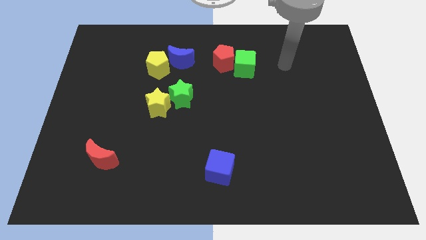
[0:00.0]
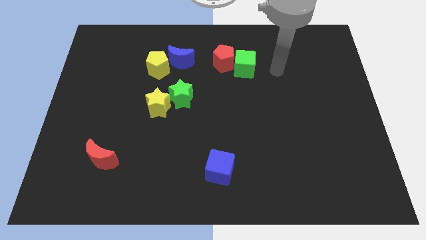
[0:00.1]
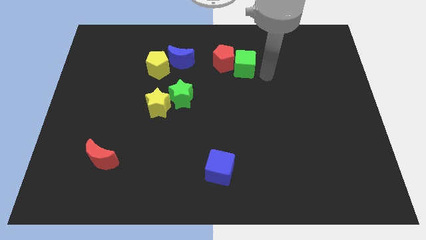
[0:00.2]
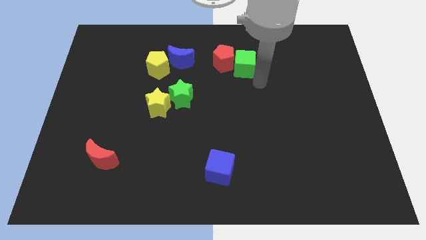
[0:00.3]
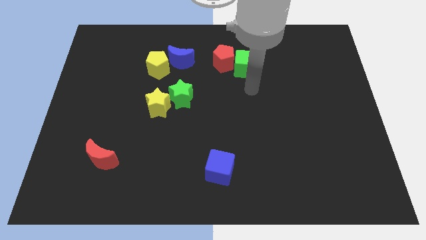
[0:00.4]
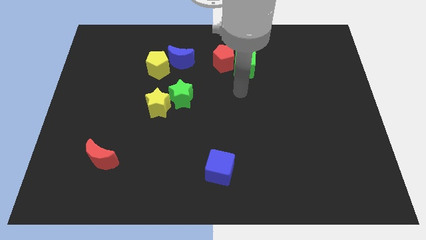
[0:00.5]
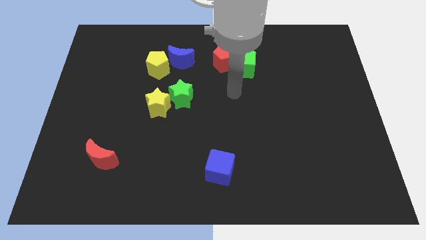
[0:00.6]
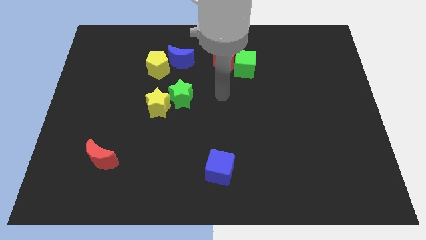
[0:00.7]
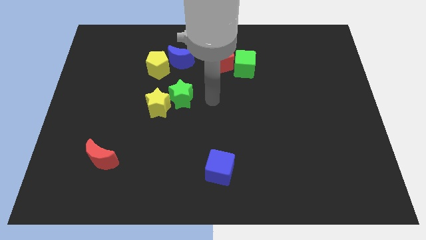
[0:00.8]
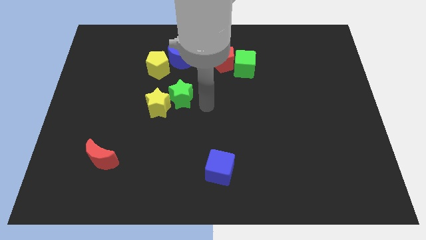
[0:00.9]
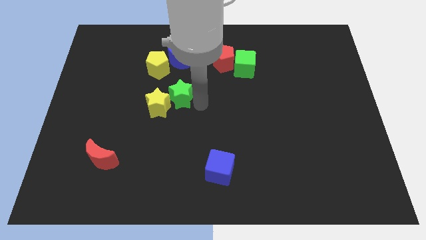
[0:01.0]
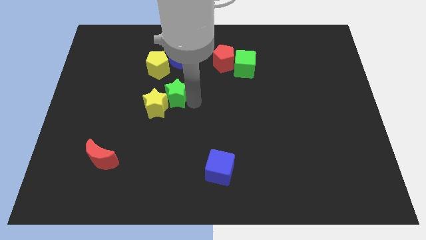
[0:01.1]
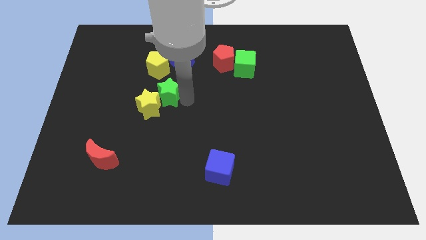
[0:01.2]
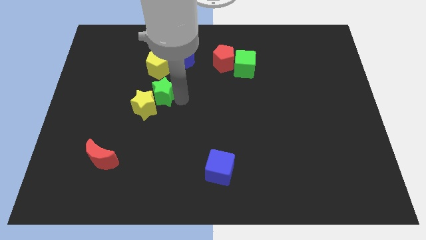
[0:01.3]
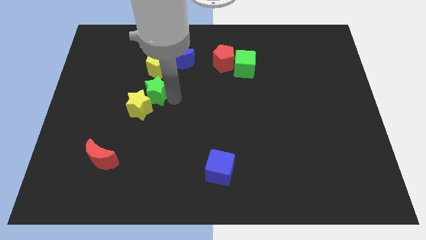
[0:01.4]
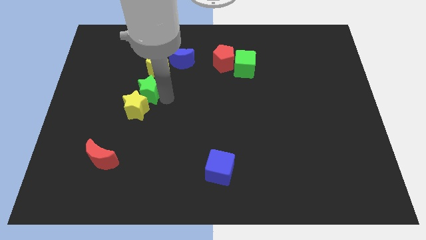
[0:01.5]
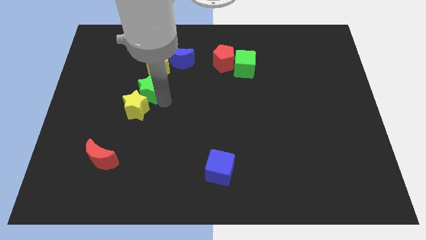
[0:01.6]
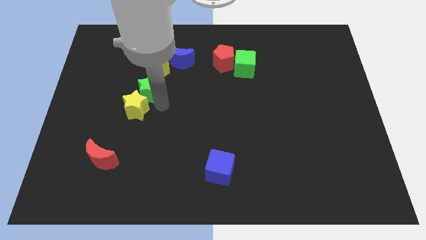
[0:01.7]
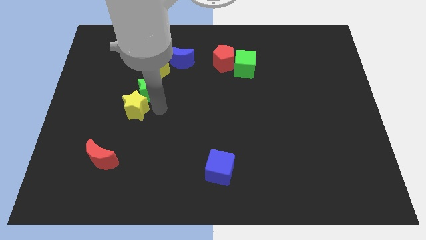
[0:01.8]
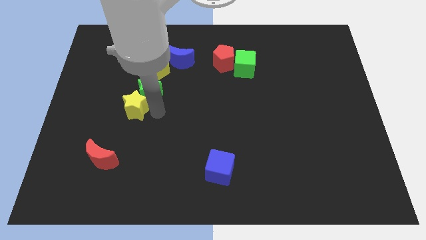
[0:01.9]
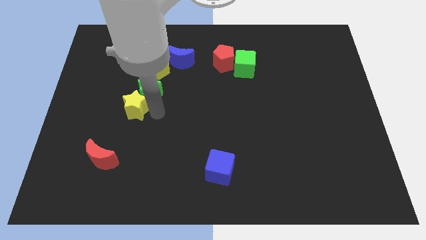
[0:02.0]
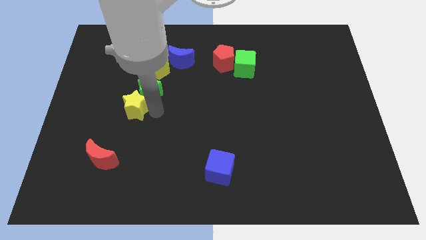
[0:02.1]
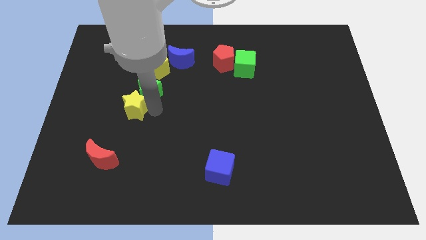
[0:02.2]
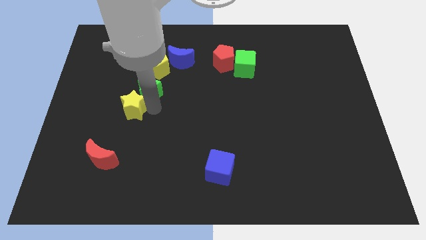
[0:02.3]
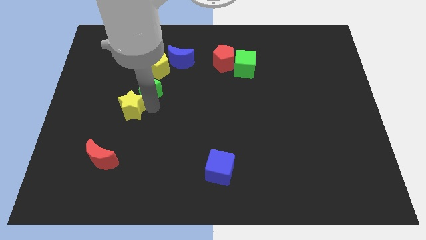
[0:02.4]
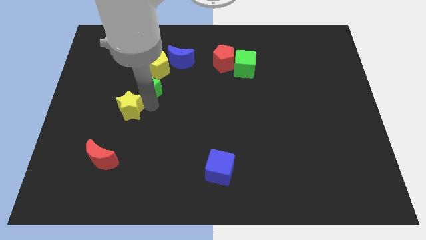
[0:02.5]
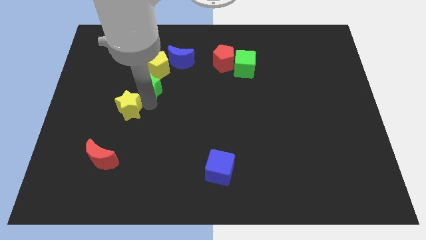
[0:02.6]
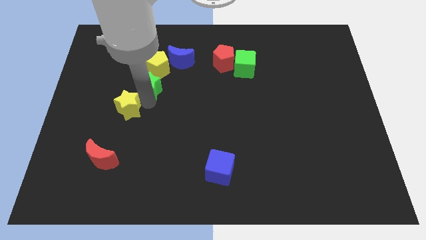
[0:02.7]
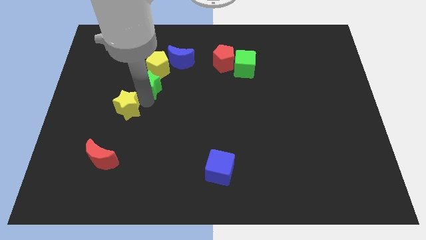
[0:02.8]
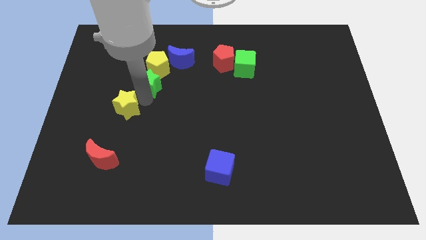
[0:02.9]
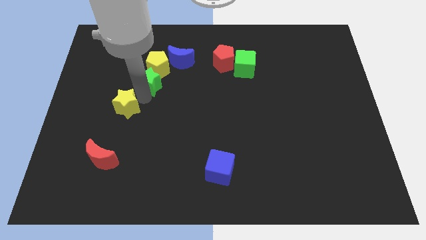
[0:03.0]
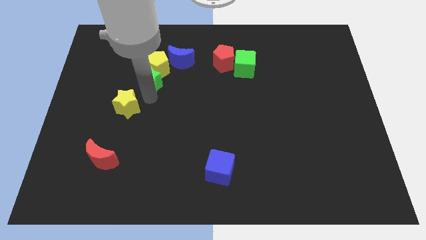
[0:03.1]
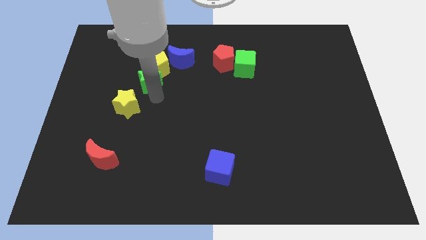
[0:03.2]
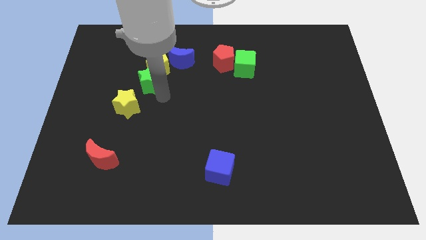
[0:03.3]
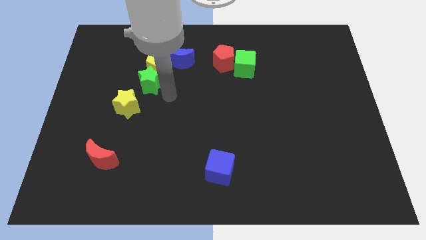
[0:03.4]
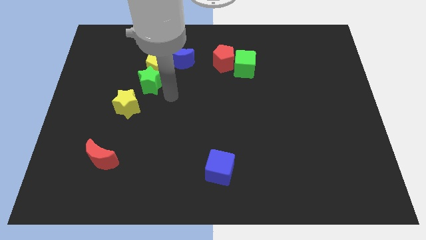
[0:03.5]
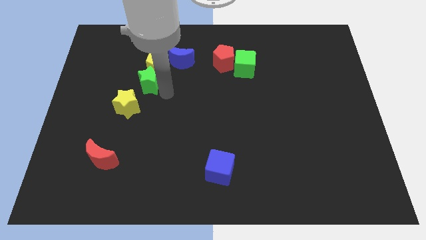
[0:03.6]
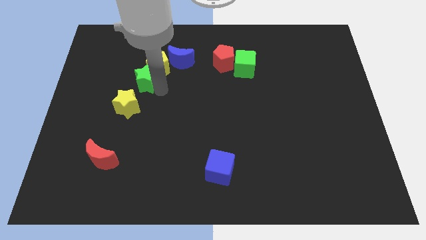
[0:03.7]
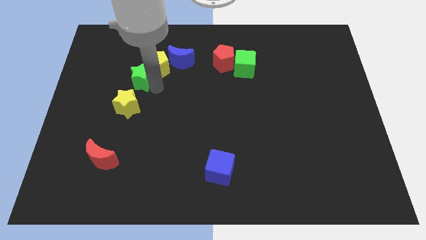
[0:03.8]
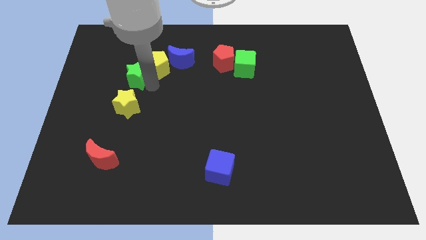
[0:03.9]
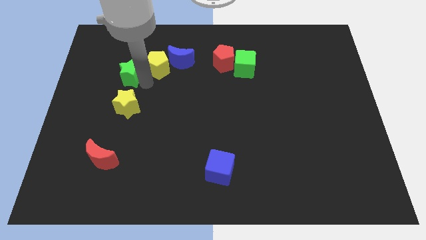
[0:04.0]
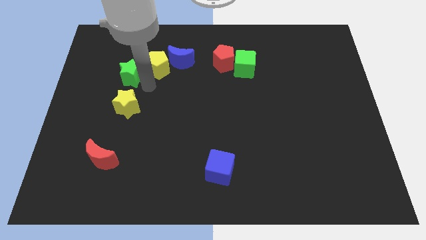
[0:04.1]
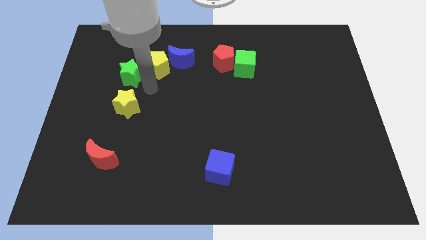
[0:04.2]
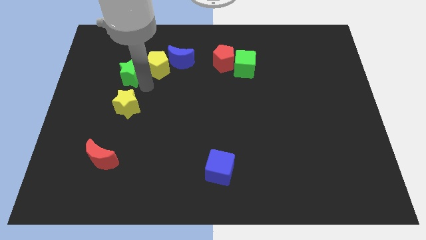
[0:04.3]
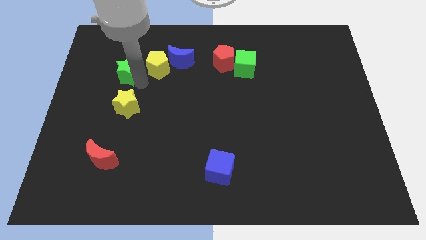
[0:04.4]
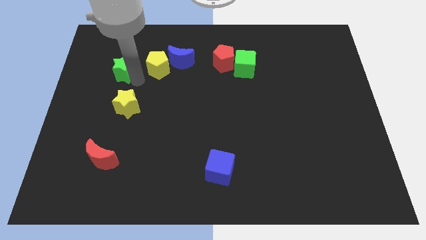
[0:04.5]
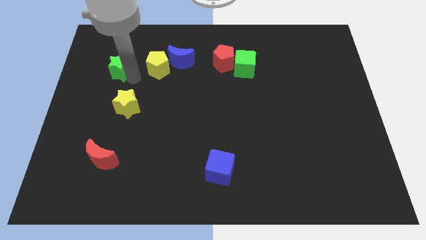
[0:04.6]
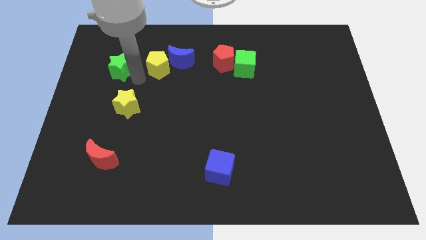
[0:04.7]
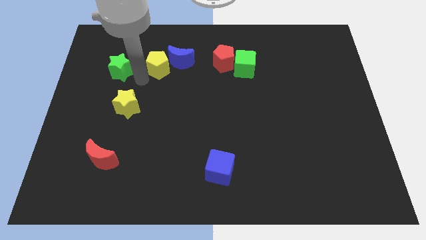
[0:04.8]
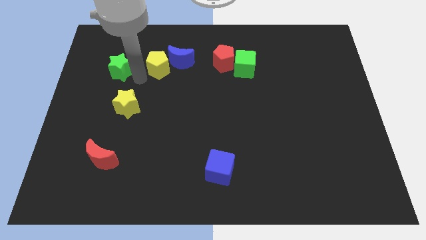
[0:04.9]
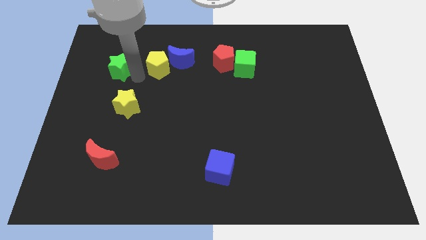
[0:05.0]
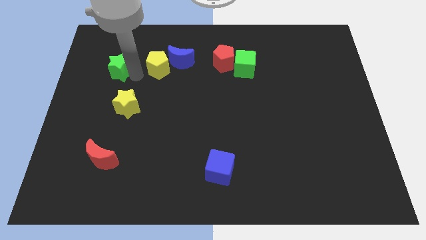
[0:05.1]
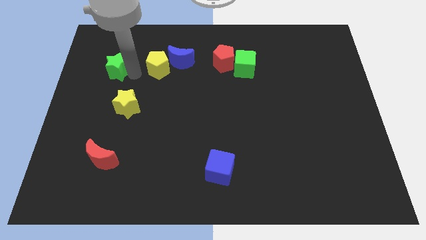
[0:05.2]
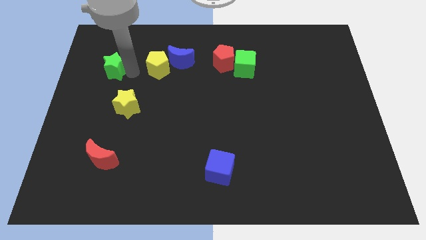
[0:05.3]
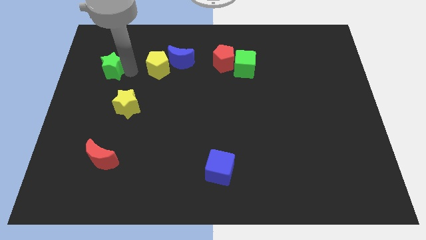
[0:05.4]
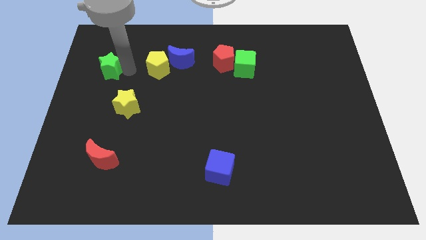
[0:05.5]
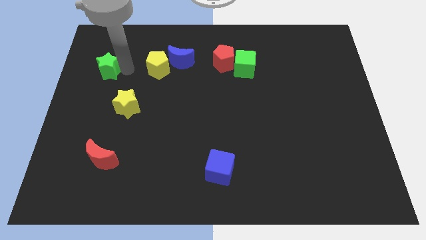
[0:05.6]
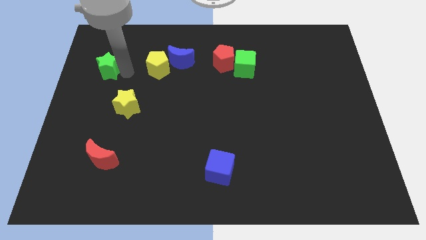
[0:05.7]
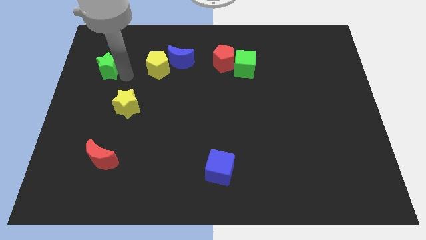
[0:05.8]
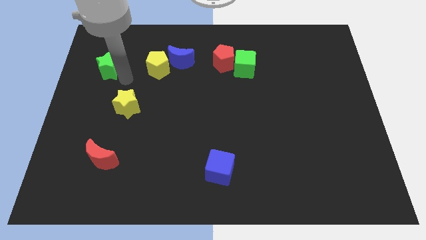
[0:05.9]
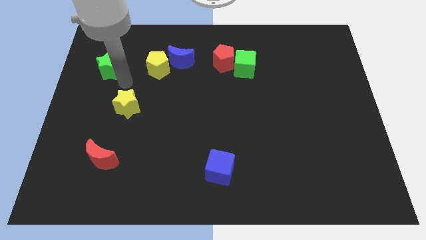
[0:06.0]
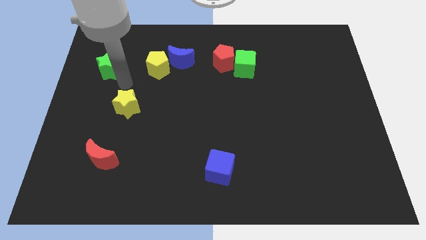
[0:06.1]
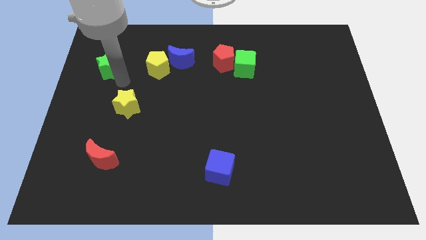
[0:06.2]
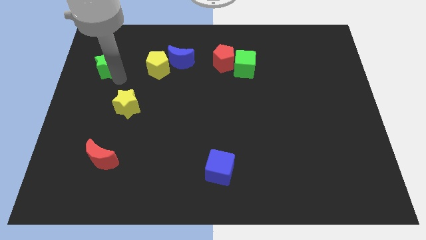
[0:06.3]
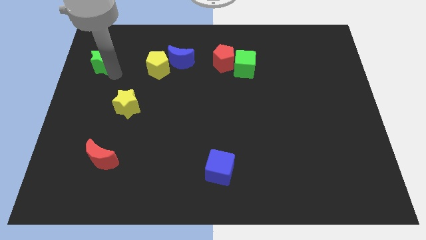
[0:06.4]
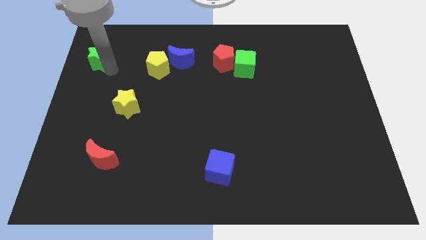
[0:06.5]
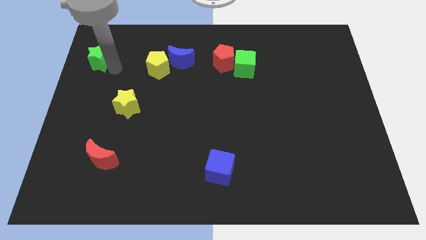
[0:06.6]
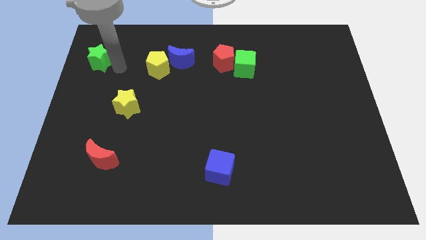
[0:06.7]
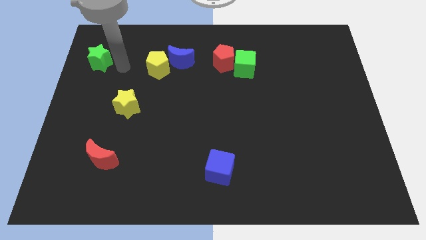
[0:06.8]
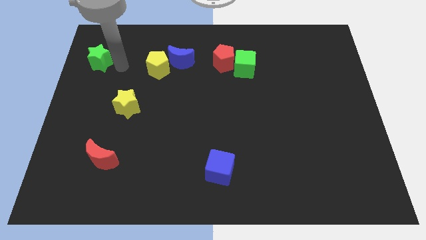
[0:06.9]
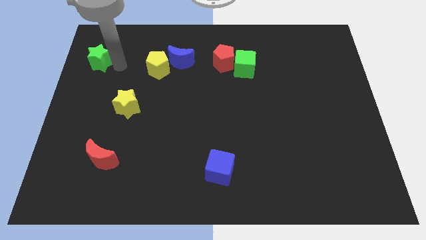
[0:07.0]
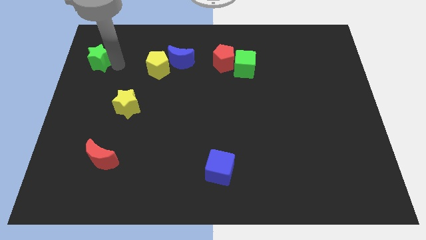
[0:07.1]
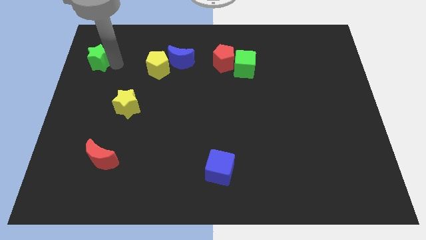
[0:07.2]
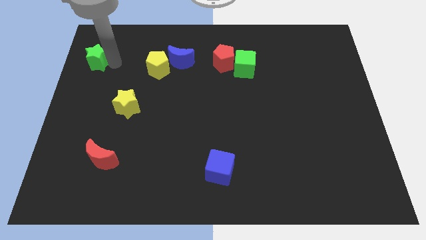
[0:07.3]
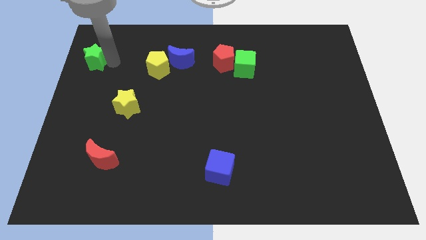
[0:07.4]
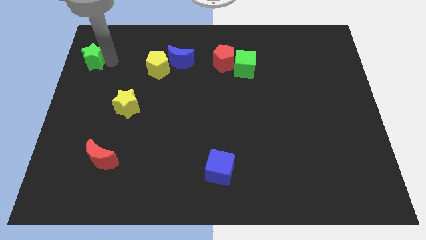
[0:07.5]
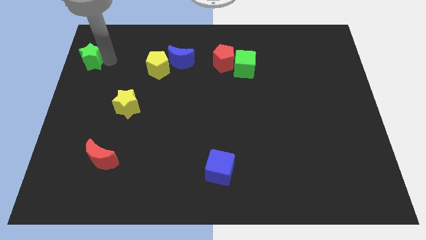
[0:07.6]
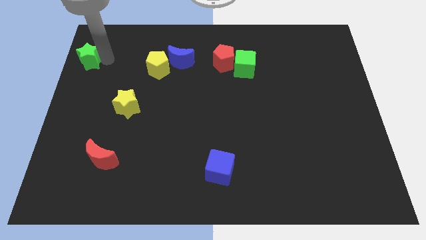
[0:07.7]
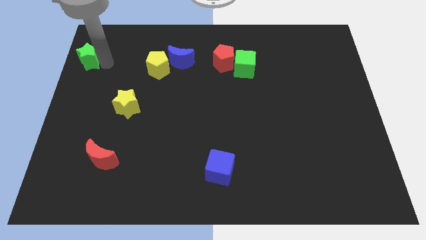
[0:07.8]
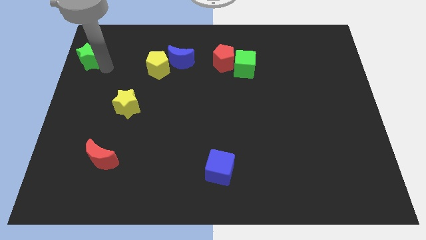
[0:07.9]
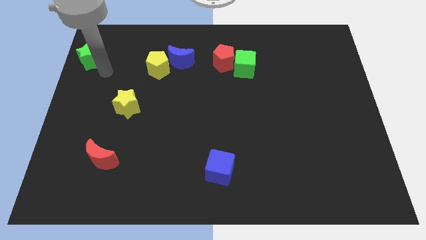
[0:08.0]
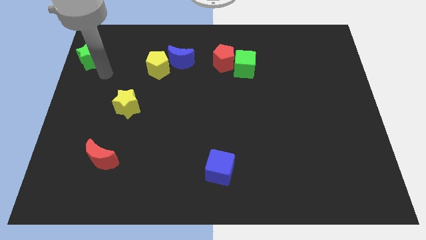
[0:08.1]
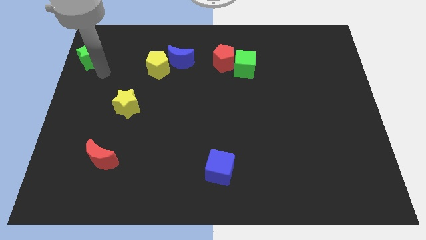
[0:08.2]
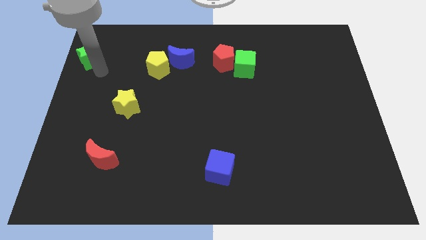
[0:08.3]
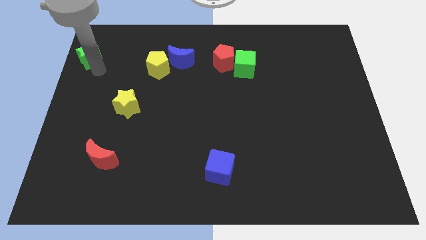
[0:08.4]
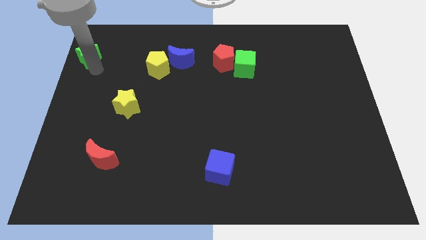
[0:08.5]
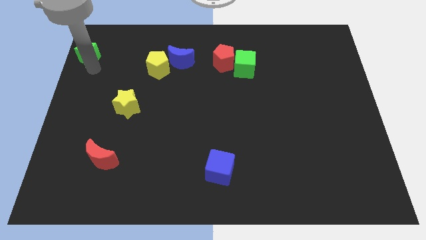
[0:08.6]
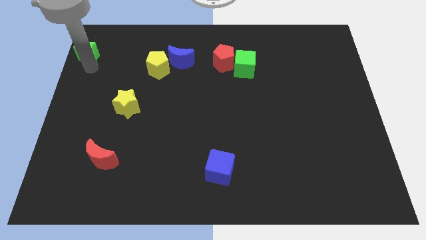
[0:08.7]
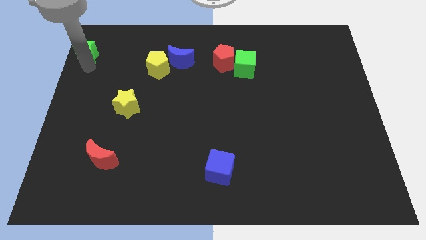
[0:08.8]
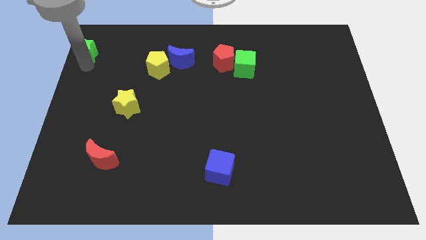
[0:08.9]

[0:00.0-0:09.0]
put the green star to the top left
